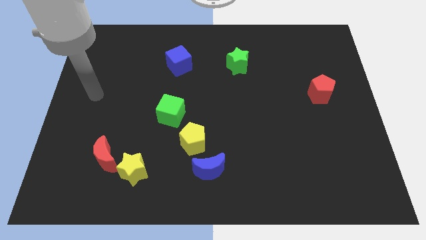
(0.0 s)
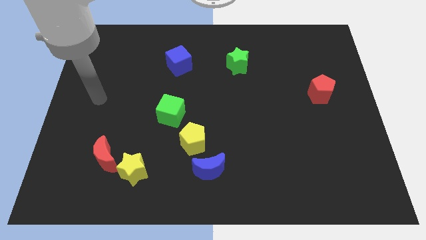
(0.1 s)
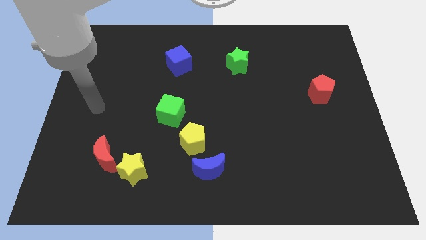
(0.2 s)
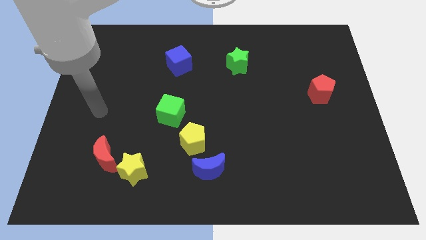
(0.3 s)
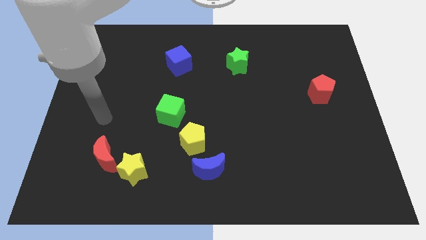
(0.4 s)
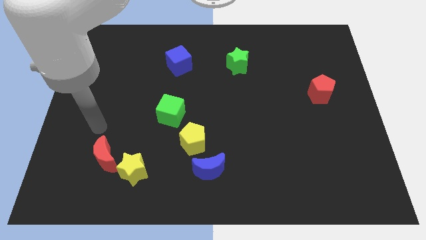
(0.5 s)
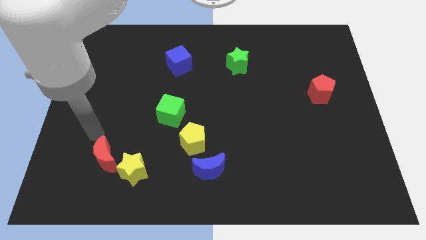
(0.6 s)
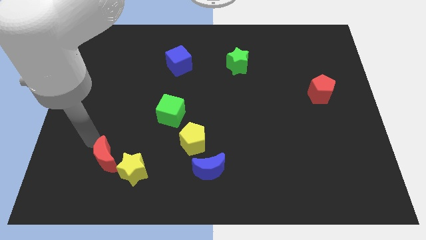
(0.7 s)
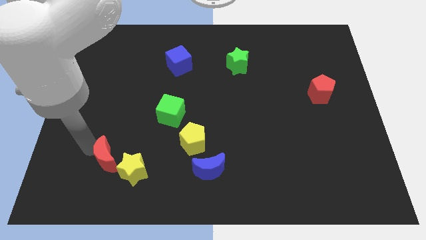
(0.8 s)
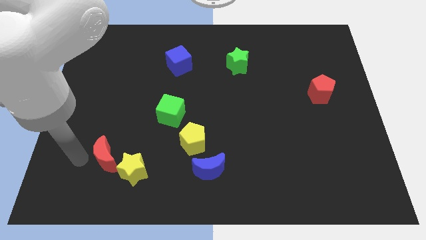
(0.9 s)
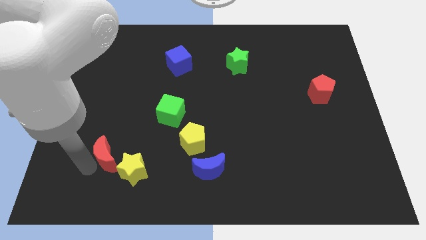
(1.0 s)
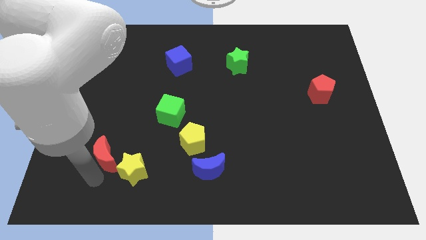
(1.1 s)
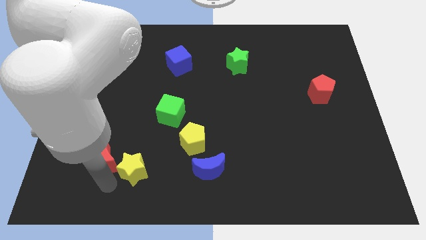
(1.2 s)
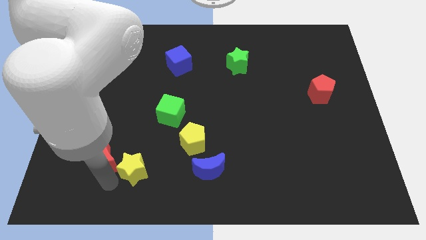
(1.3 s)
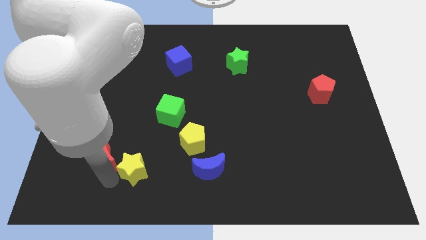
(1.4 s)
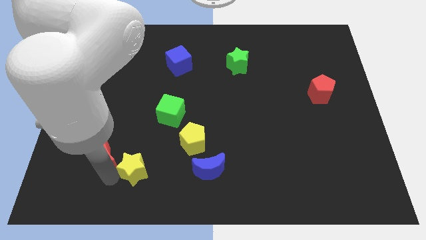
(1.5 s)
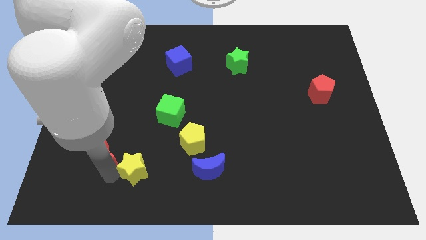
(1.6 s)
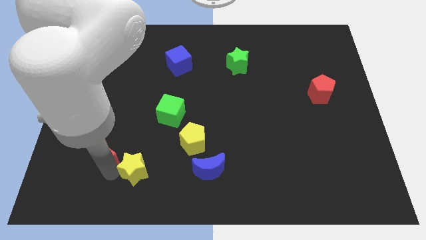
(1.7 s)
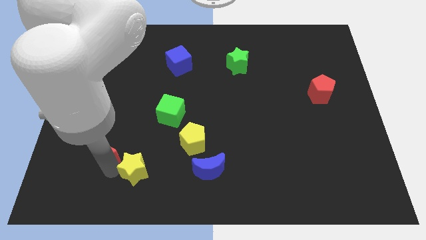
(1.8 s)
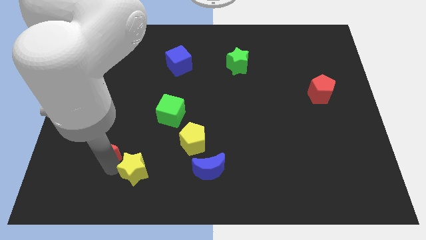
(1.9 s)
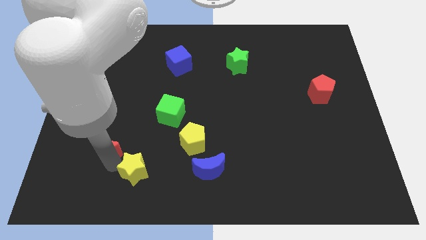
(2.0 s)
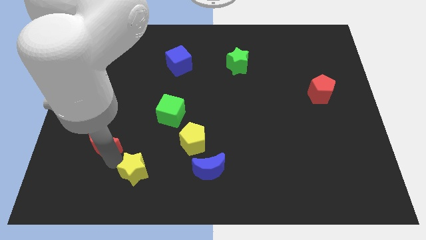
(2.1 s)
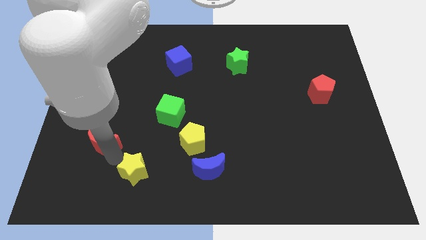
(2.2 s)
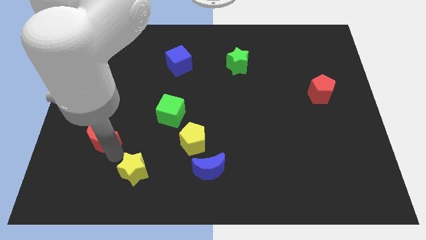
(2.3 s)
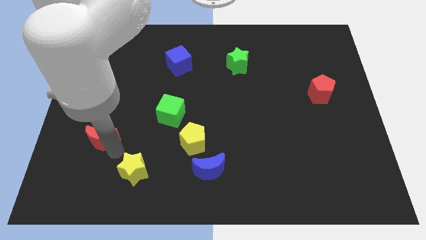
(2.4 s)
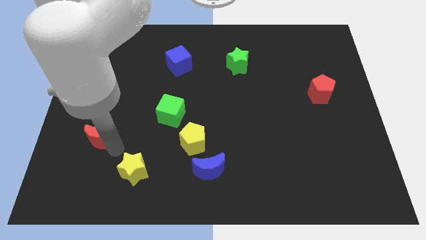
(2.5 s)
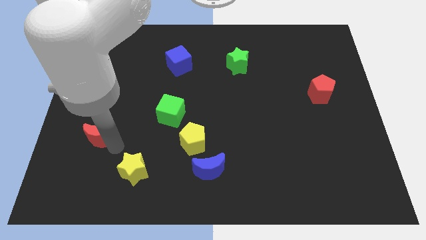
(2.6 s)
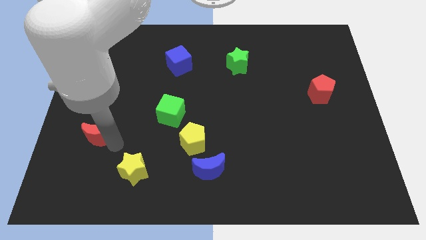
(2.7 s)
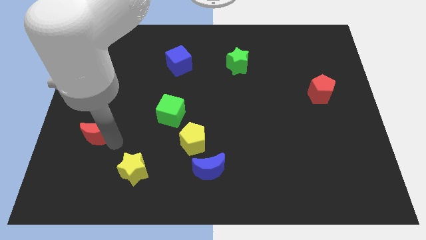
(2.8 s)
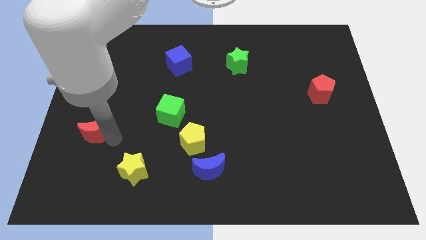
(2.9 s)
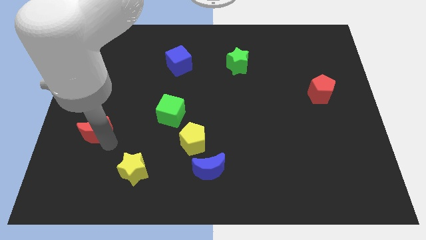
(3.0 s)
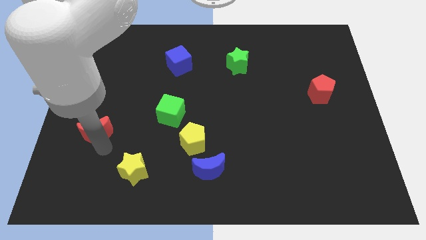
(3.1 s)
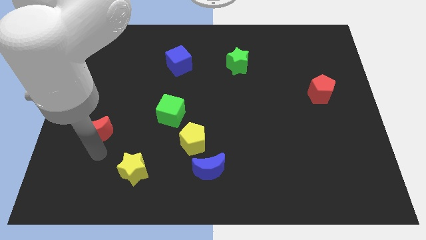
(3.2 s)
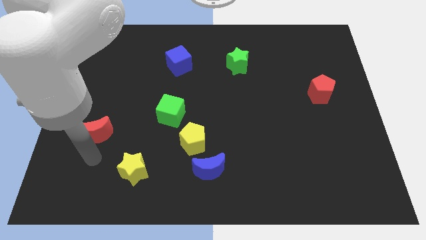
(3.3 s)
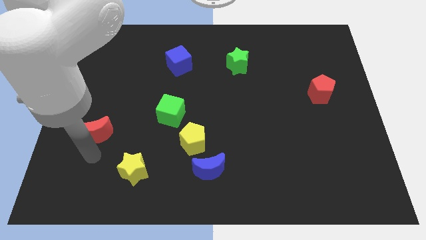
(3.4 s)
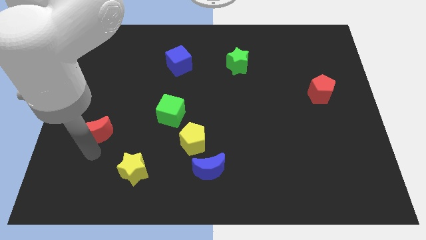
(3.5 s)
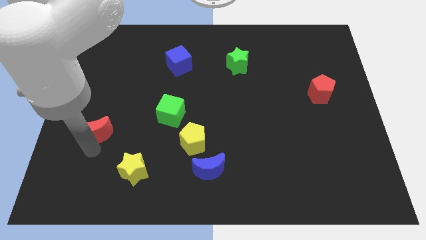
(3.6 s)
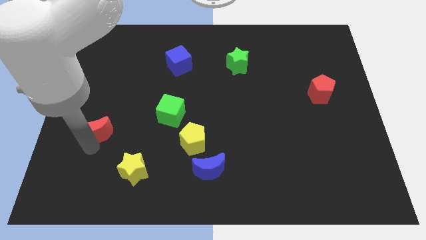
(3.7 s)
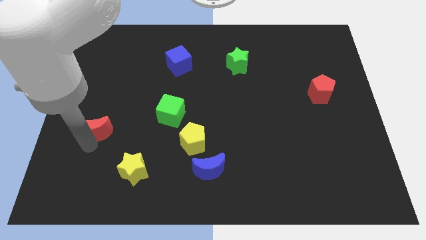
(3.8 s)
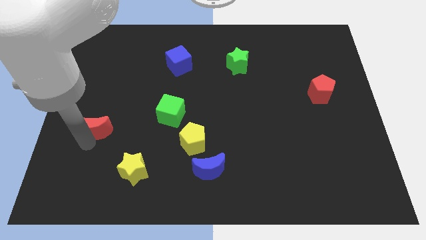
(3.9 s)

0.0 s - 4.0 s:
slide the red moon slightly upwards

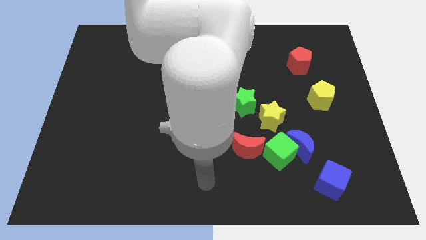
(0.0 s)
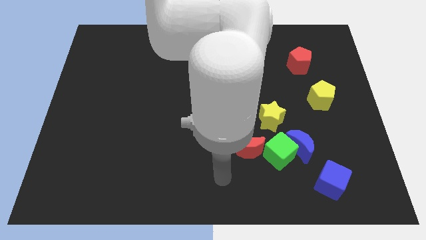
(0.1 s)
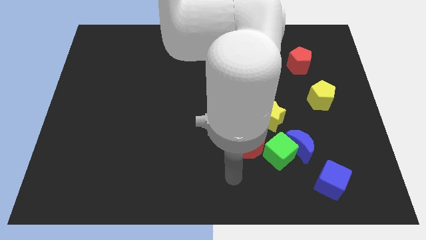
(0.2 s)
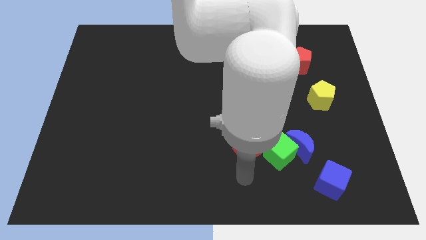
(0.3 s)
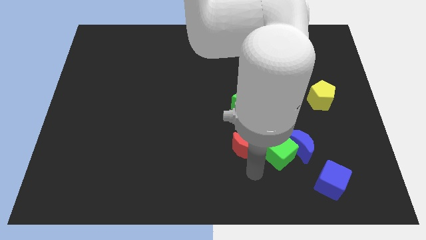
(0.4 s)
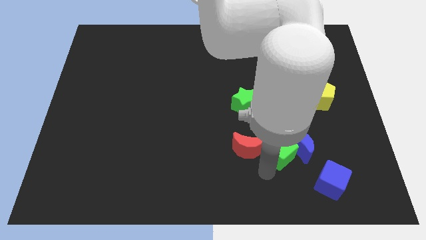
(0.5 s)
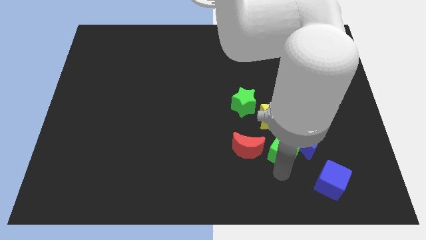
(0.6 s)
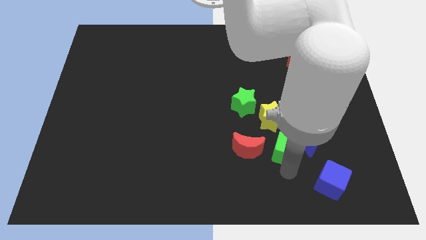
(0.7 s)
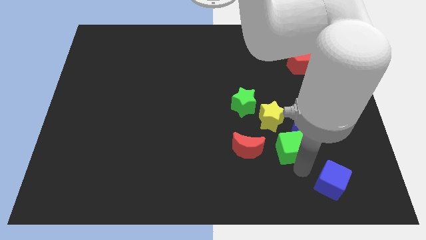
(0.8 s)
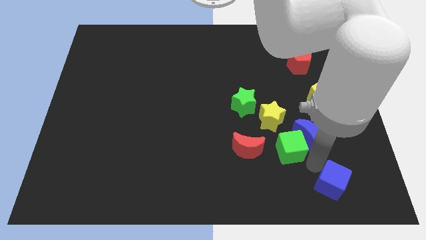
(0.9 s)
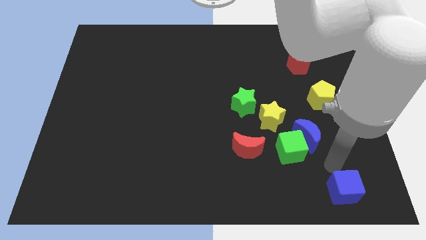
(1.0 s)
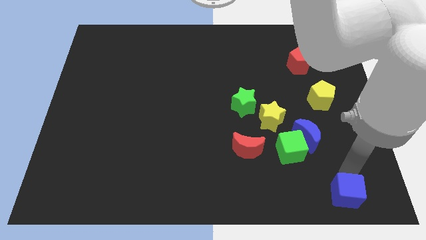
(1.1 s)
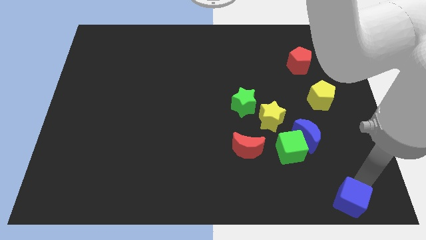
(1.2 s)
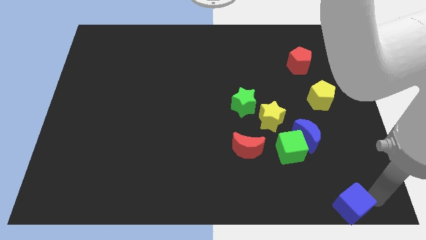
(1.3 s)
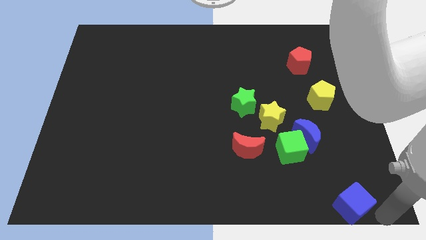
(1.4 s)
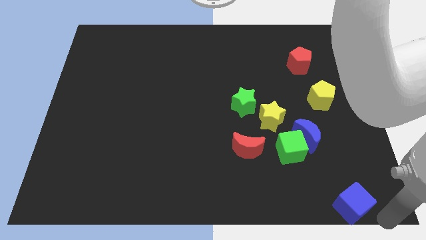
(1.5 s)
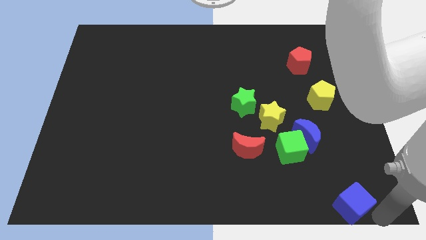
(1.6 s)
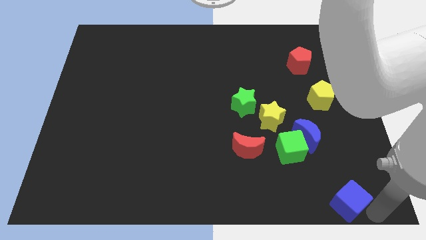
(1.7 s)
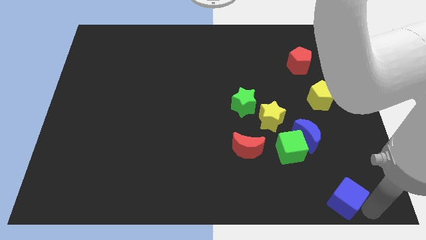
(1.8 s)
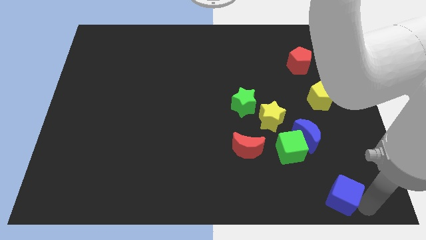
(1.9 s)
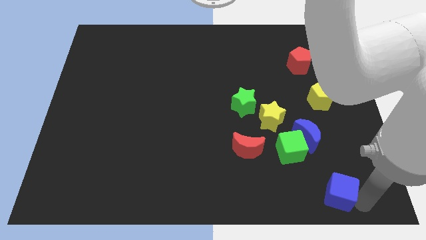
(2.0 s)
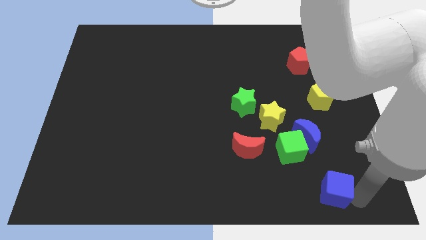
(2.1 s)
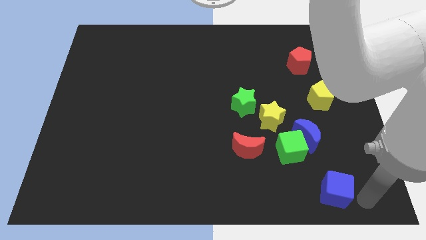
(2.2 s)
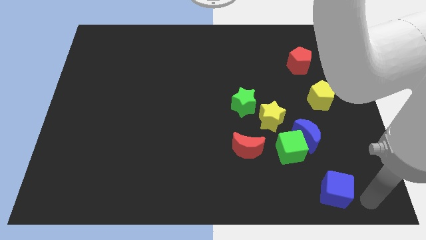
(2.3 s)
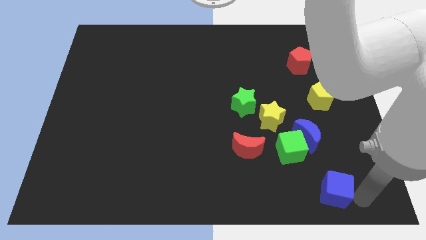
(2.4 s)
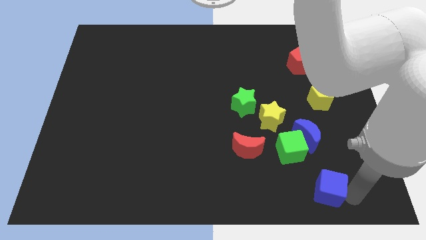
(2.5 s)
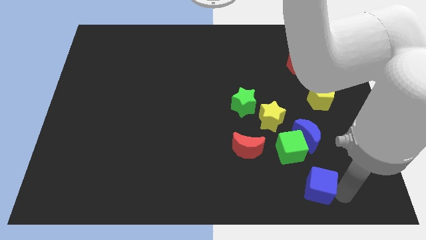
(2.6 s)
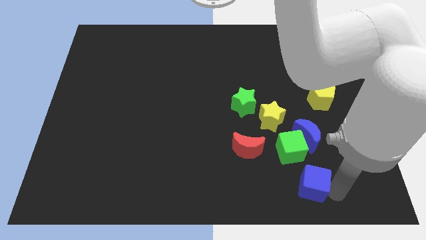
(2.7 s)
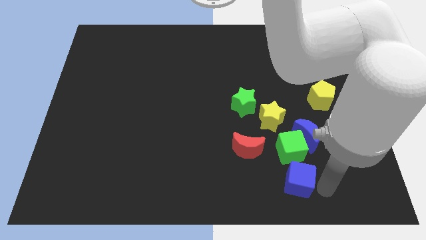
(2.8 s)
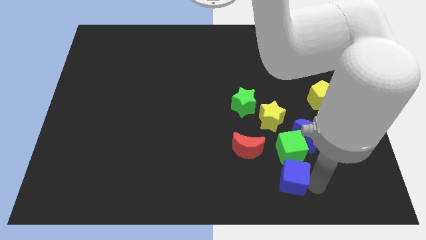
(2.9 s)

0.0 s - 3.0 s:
move the blue cube a bit left

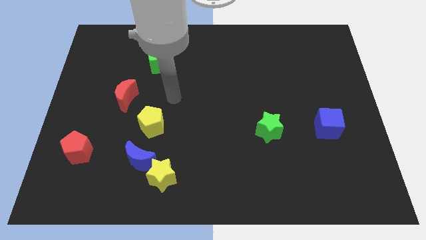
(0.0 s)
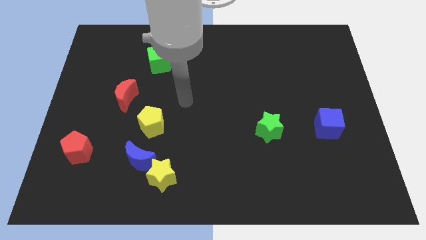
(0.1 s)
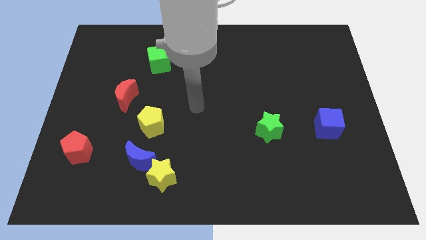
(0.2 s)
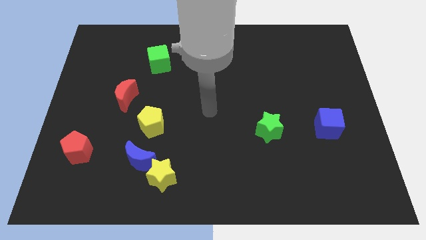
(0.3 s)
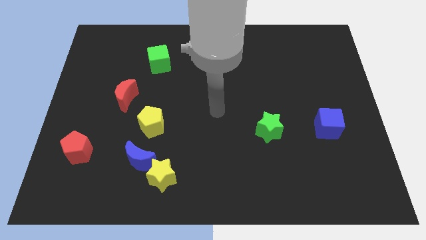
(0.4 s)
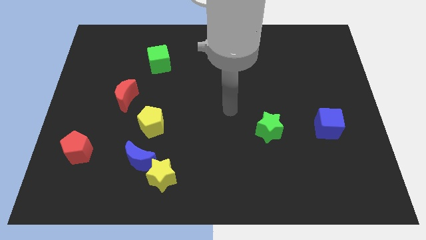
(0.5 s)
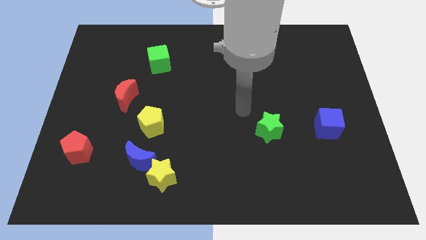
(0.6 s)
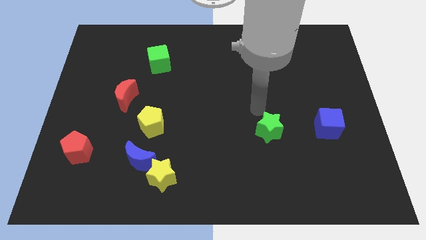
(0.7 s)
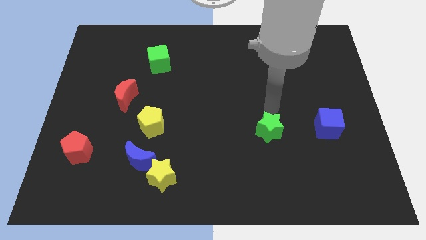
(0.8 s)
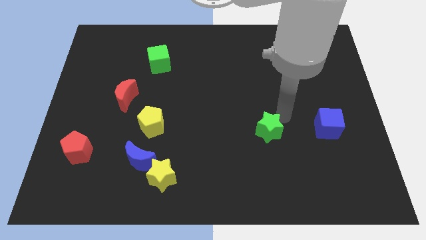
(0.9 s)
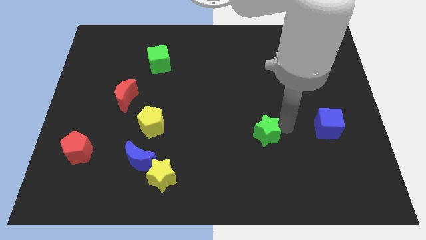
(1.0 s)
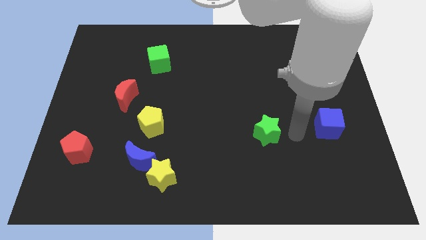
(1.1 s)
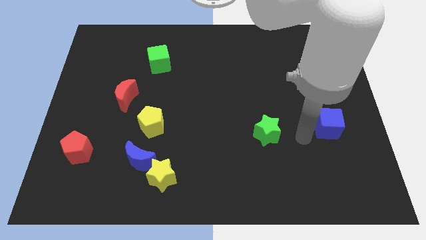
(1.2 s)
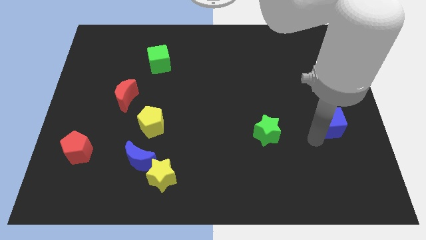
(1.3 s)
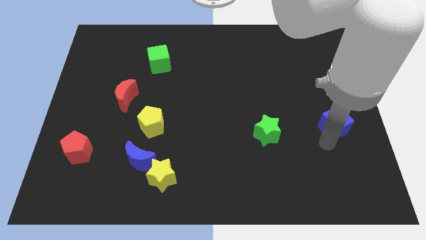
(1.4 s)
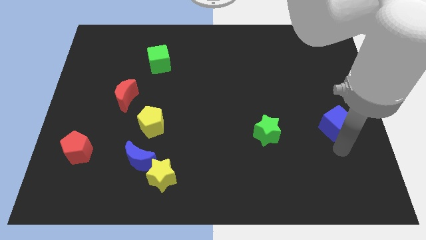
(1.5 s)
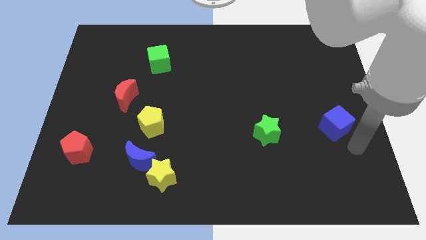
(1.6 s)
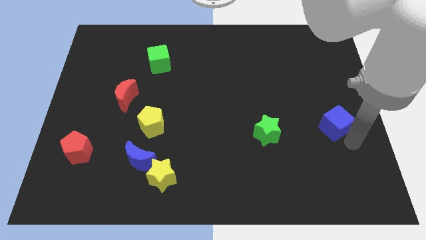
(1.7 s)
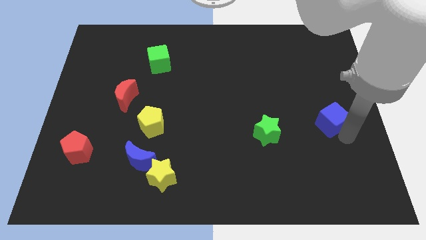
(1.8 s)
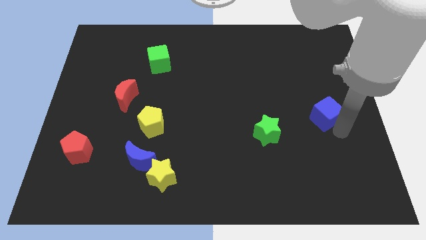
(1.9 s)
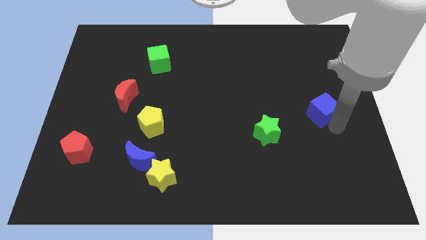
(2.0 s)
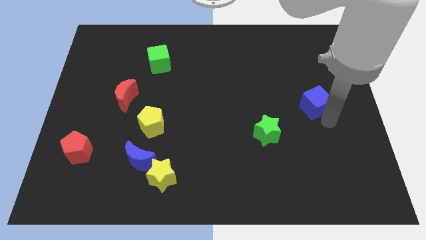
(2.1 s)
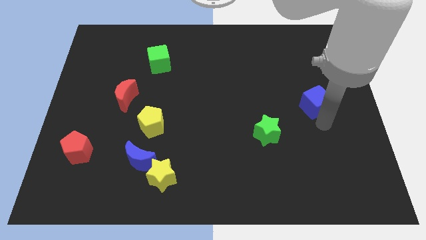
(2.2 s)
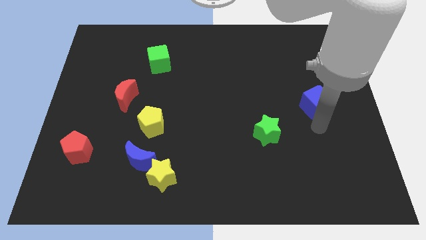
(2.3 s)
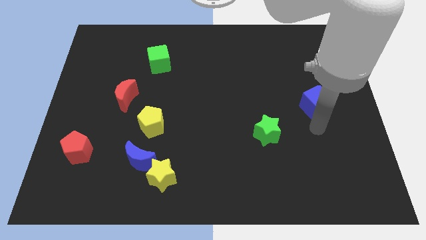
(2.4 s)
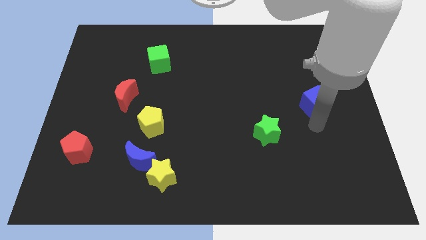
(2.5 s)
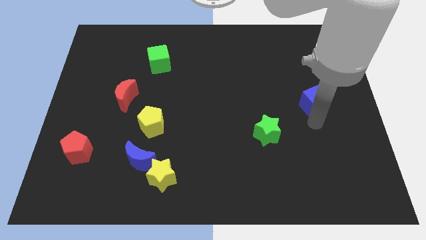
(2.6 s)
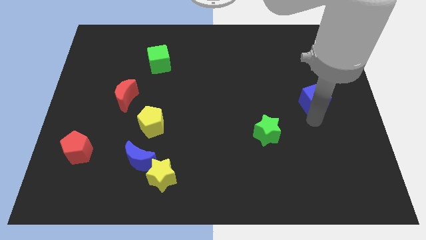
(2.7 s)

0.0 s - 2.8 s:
move the blue cube up slightly
